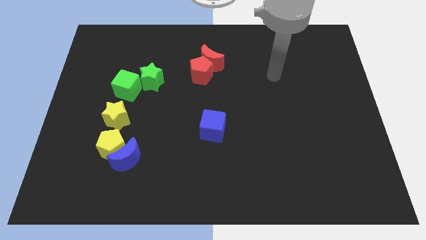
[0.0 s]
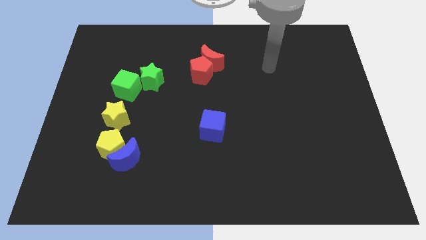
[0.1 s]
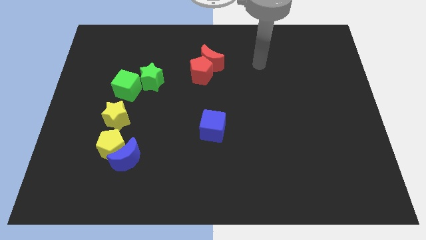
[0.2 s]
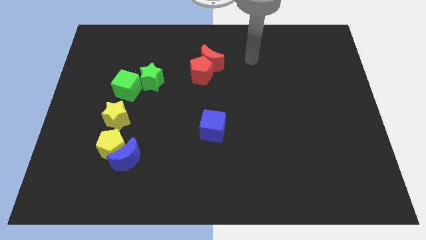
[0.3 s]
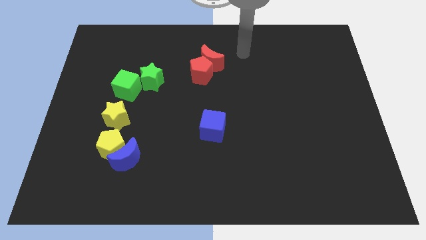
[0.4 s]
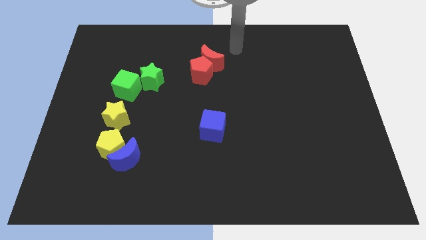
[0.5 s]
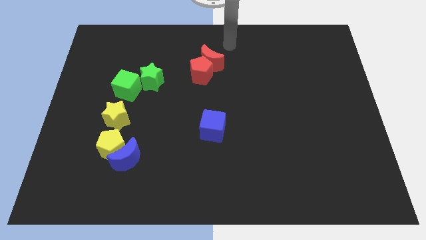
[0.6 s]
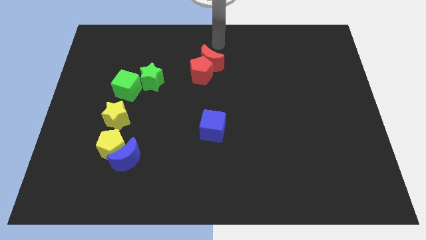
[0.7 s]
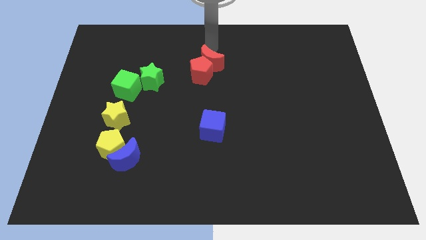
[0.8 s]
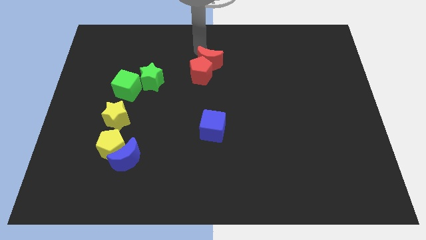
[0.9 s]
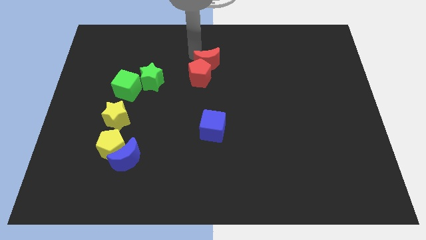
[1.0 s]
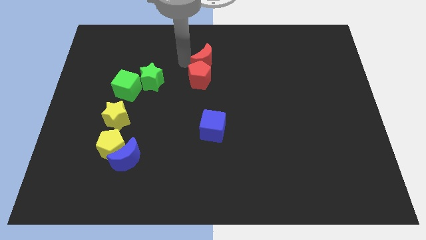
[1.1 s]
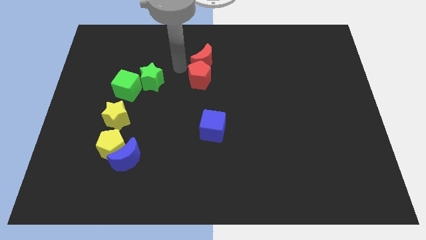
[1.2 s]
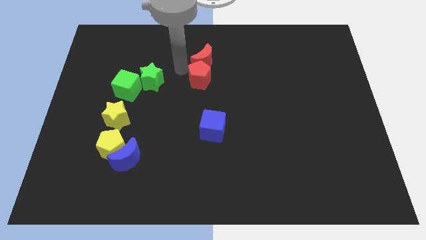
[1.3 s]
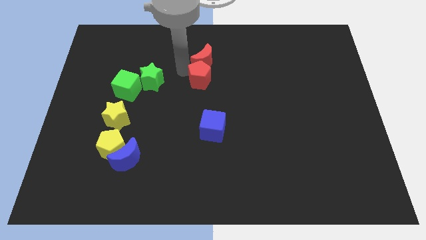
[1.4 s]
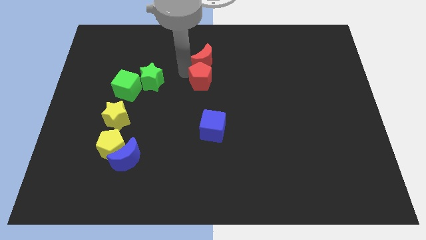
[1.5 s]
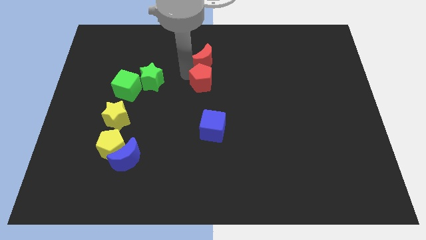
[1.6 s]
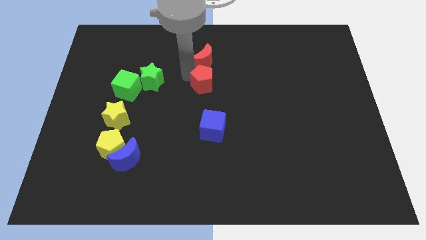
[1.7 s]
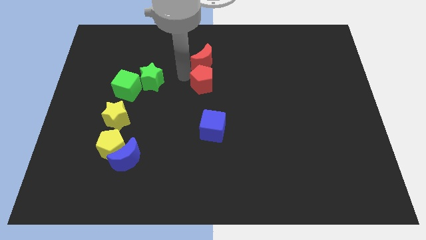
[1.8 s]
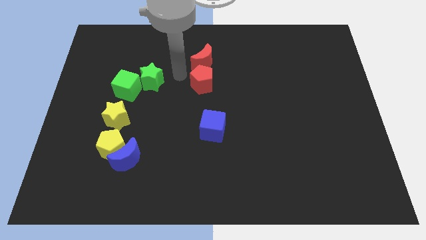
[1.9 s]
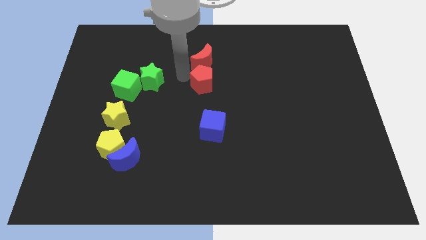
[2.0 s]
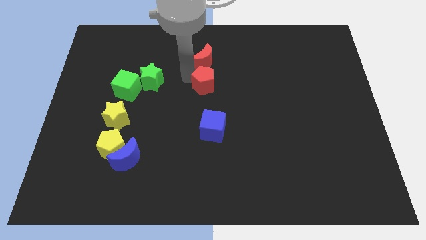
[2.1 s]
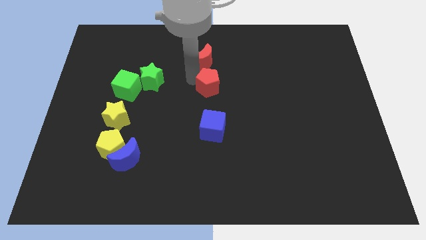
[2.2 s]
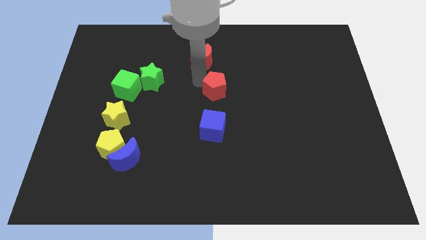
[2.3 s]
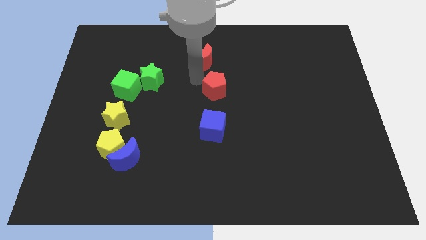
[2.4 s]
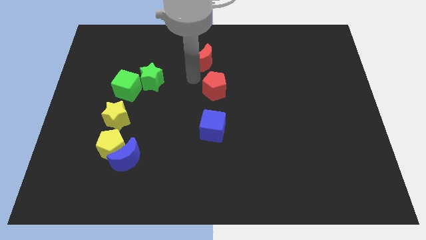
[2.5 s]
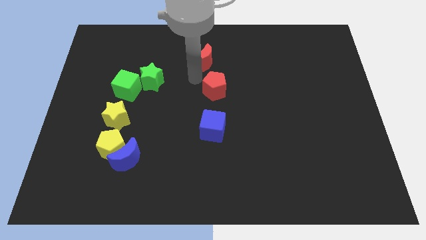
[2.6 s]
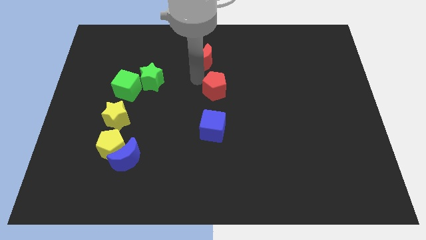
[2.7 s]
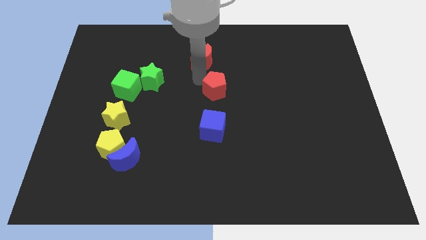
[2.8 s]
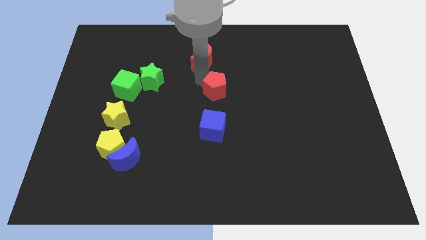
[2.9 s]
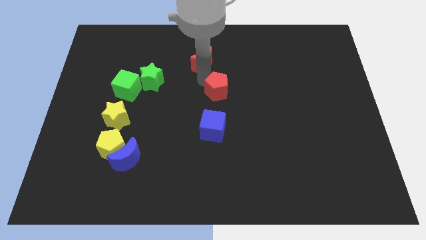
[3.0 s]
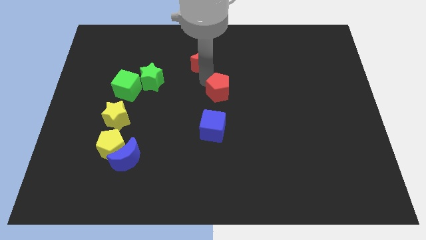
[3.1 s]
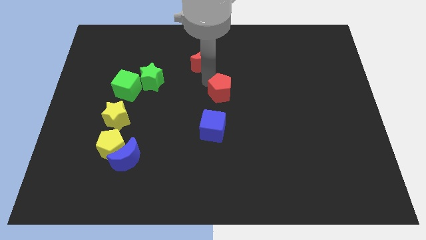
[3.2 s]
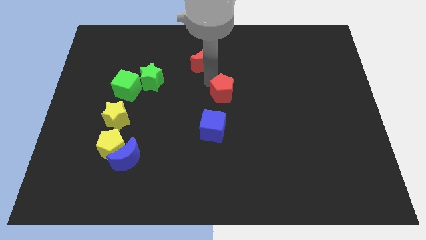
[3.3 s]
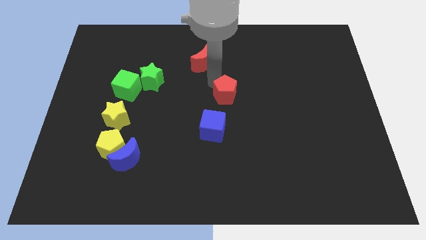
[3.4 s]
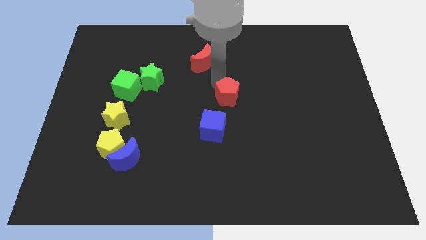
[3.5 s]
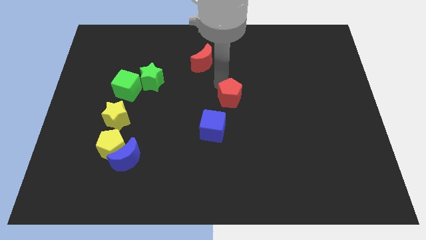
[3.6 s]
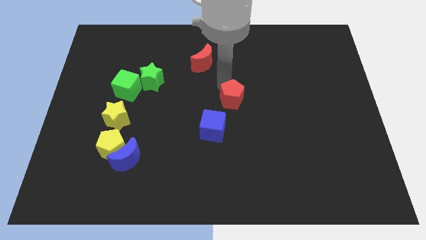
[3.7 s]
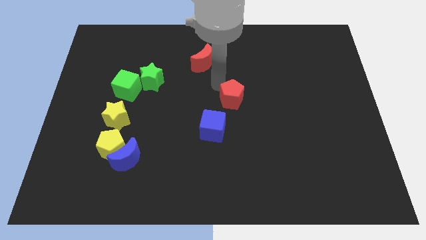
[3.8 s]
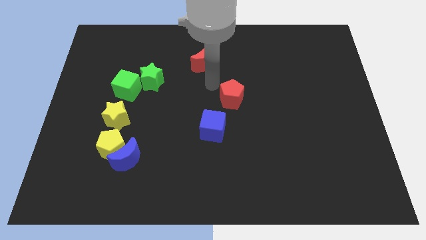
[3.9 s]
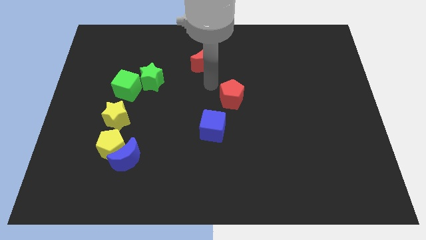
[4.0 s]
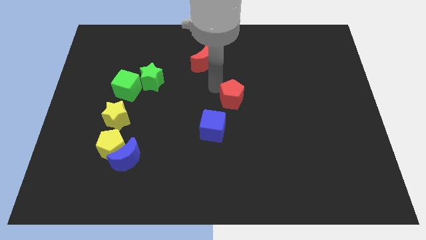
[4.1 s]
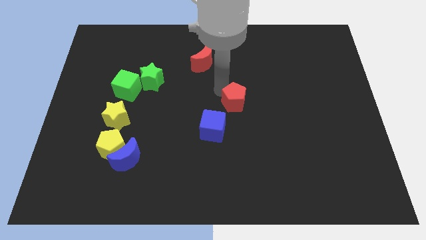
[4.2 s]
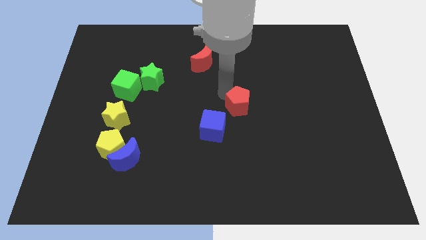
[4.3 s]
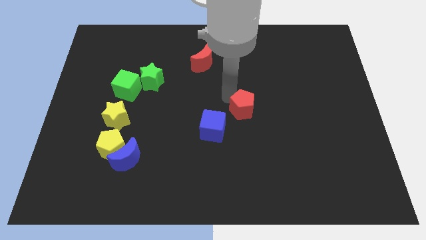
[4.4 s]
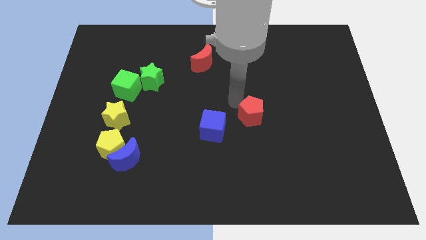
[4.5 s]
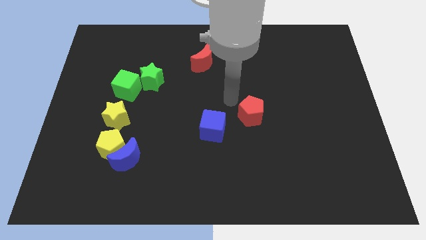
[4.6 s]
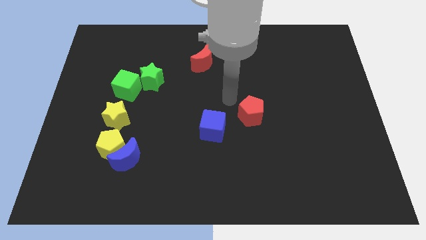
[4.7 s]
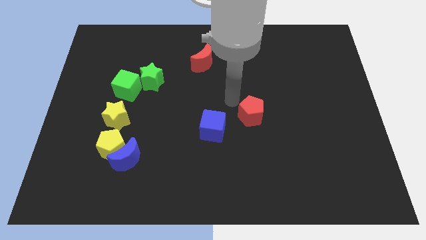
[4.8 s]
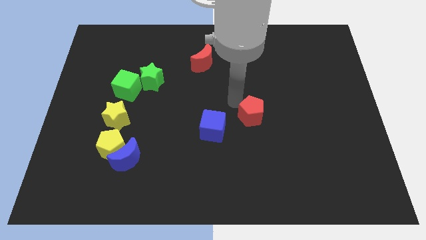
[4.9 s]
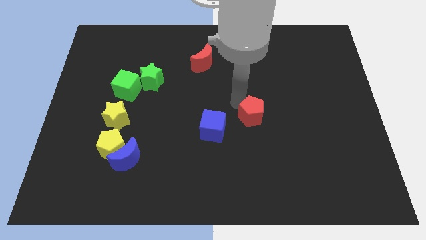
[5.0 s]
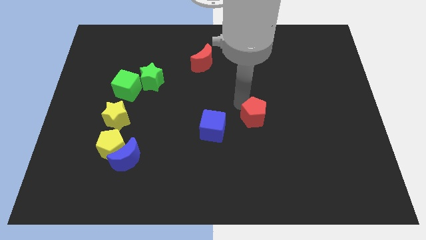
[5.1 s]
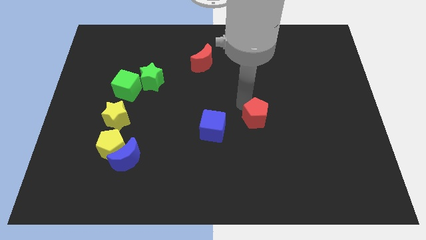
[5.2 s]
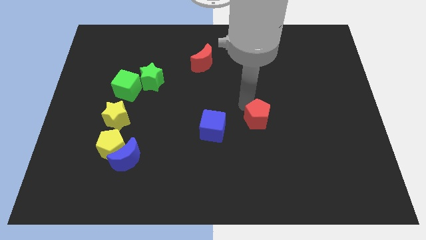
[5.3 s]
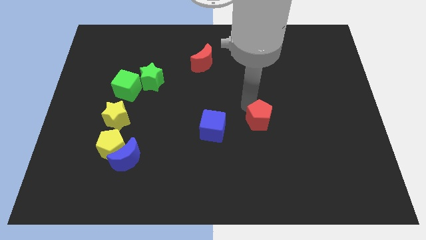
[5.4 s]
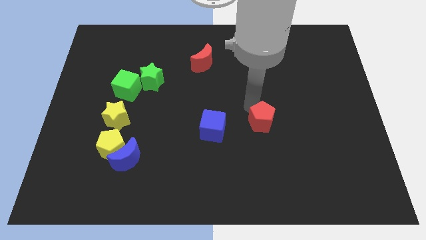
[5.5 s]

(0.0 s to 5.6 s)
push the red pentagon down and then to the right

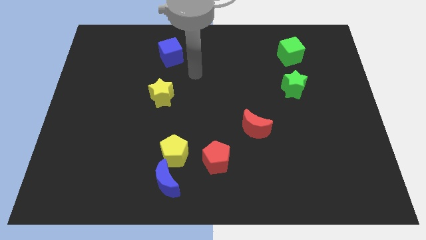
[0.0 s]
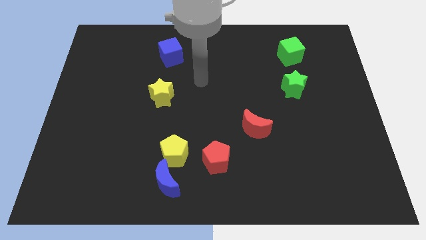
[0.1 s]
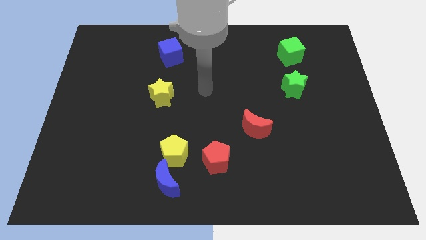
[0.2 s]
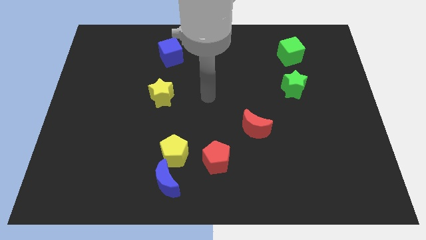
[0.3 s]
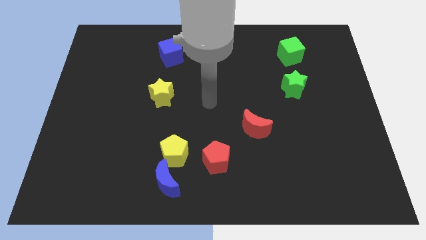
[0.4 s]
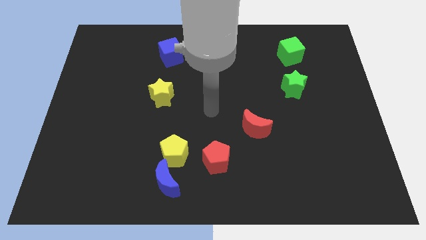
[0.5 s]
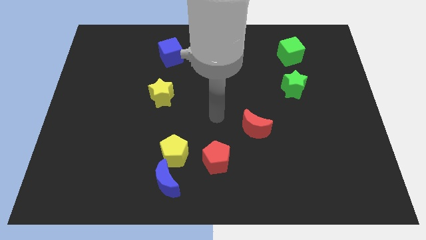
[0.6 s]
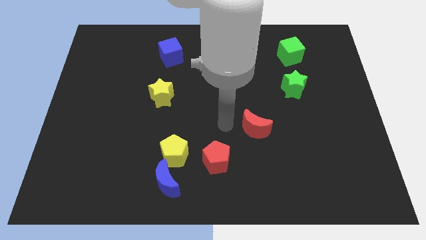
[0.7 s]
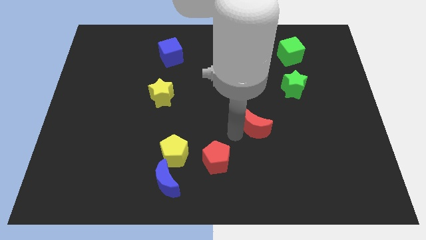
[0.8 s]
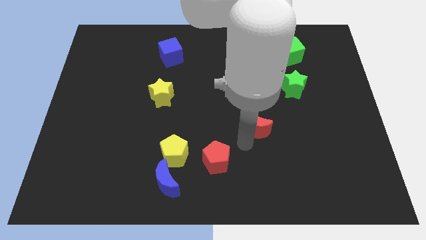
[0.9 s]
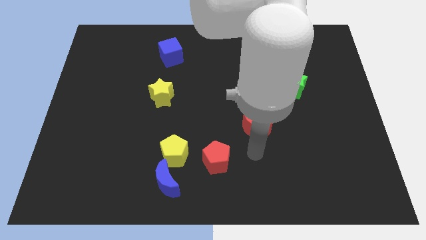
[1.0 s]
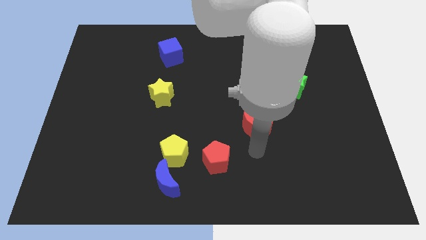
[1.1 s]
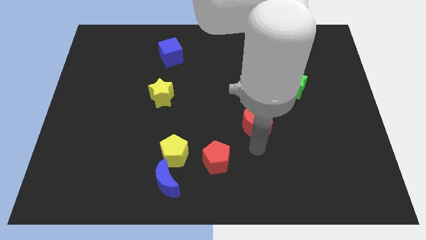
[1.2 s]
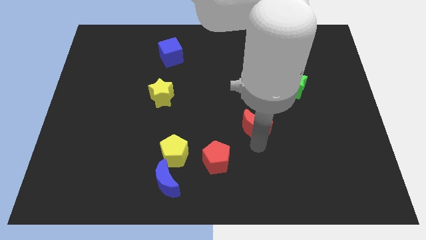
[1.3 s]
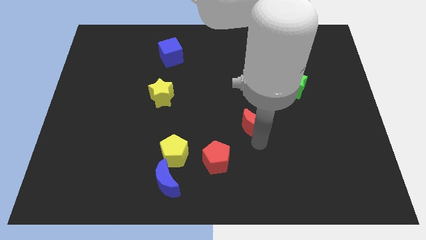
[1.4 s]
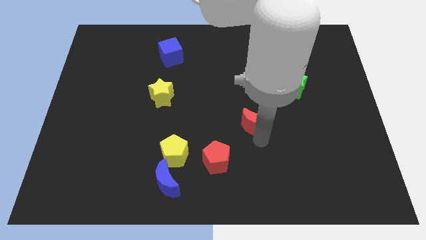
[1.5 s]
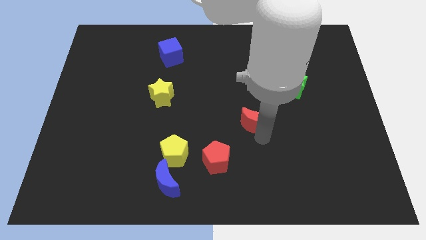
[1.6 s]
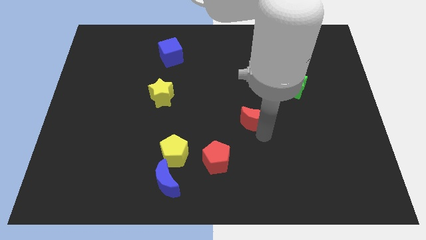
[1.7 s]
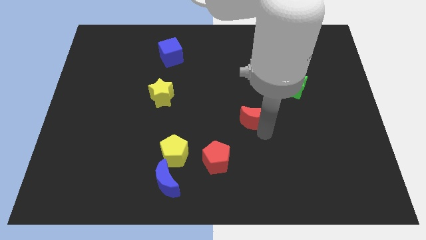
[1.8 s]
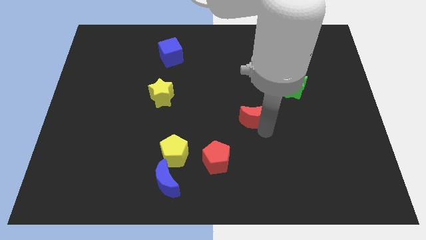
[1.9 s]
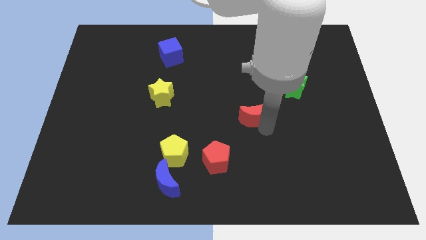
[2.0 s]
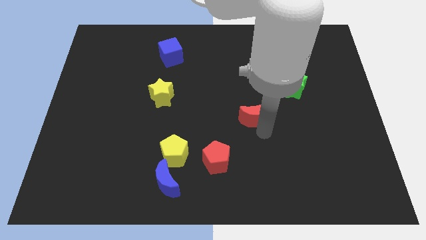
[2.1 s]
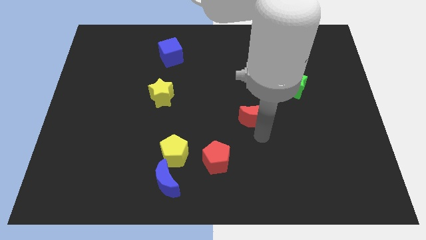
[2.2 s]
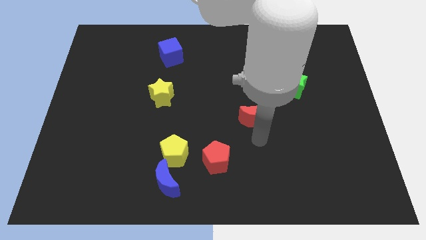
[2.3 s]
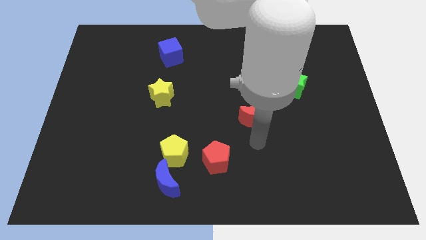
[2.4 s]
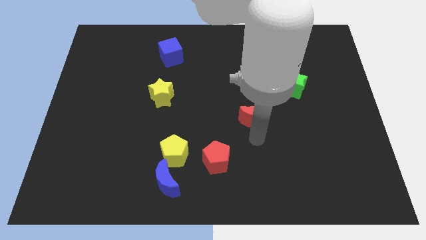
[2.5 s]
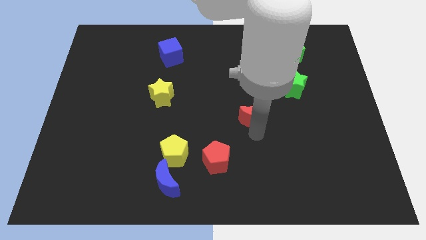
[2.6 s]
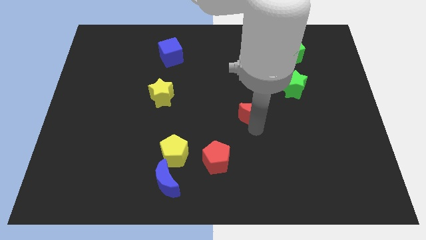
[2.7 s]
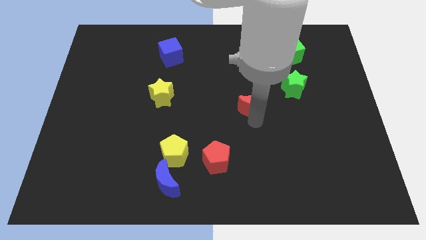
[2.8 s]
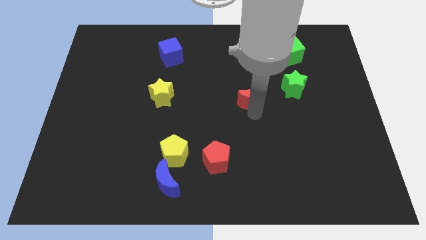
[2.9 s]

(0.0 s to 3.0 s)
move the red moon upwards a little
